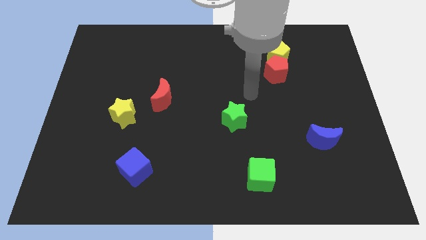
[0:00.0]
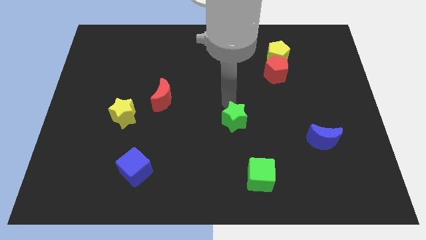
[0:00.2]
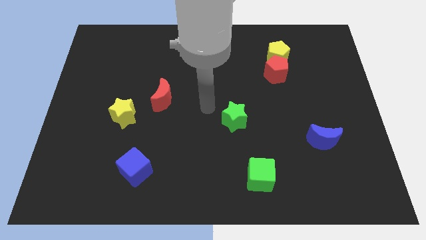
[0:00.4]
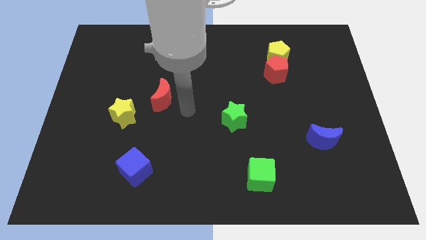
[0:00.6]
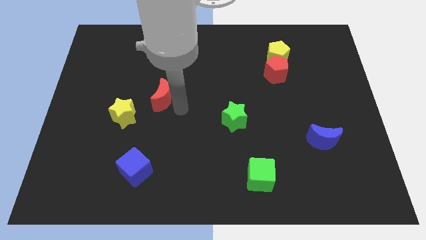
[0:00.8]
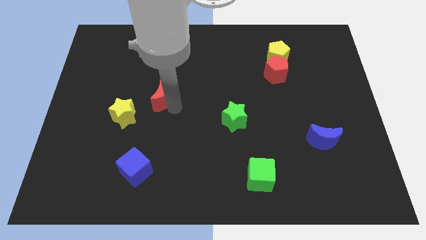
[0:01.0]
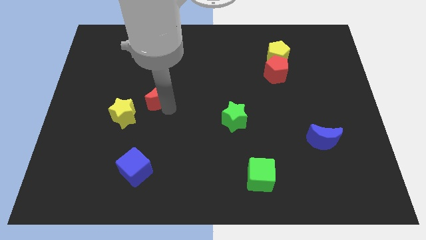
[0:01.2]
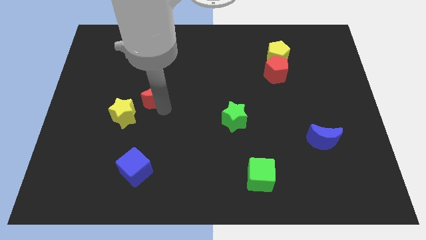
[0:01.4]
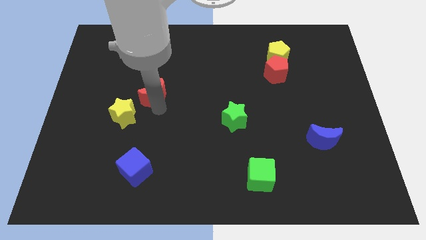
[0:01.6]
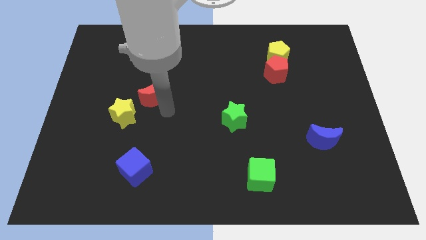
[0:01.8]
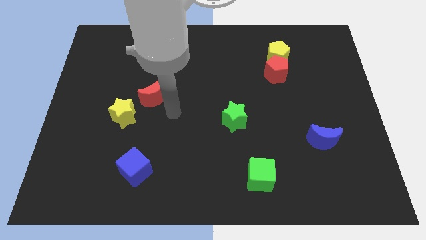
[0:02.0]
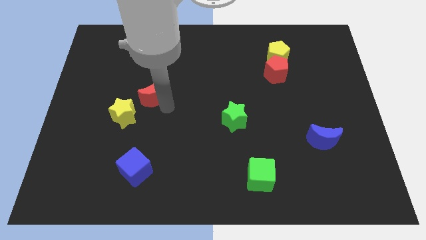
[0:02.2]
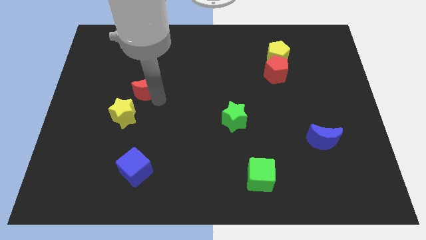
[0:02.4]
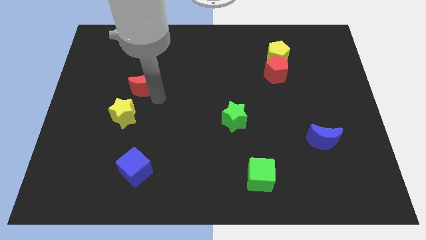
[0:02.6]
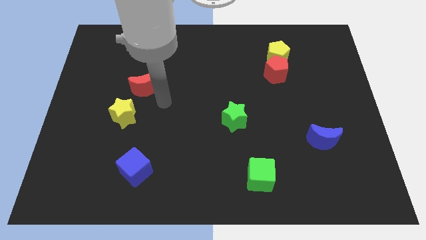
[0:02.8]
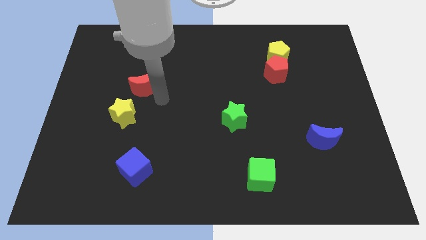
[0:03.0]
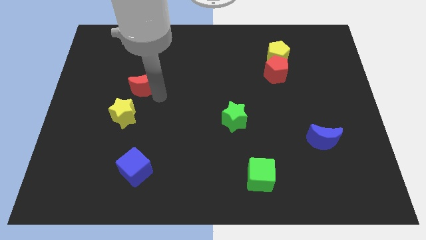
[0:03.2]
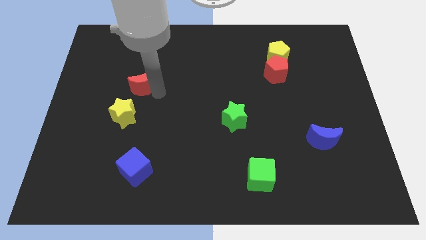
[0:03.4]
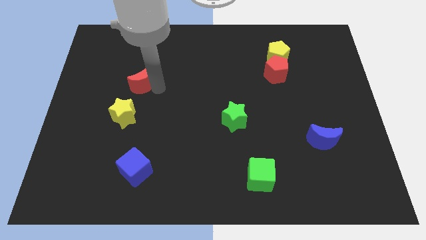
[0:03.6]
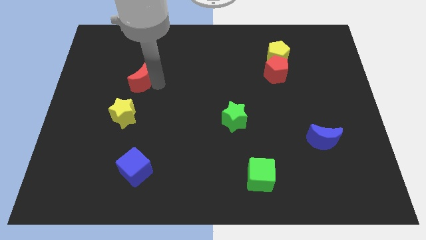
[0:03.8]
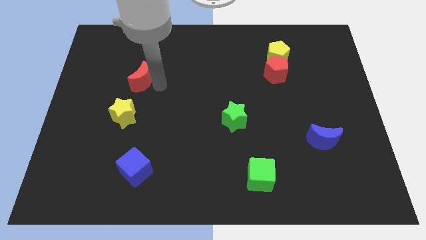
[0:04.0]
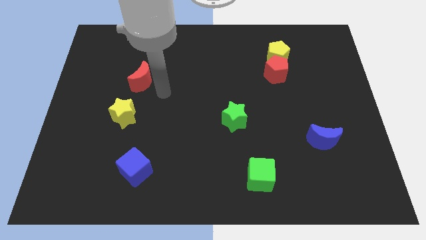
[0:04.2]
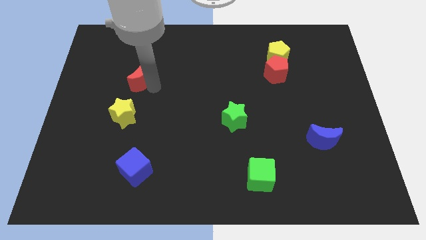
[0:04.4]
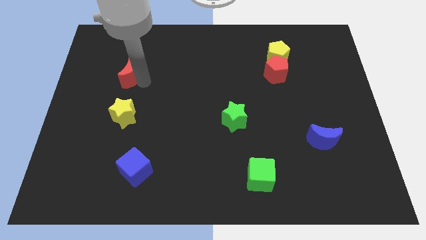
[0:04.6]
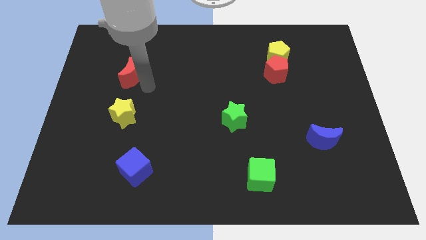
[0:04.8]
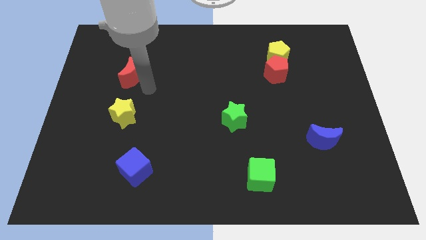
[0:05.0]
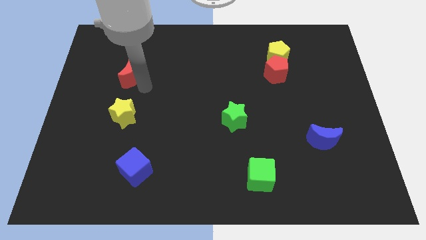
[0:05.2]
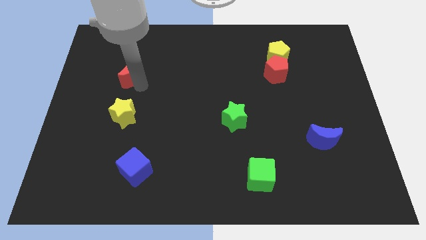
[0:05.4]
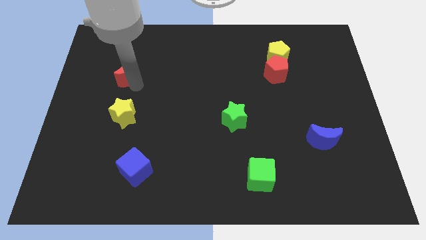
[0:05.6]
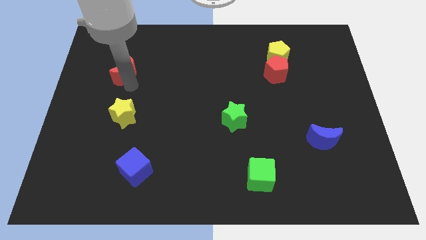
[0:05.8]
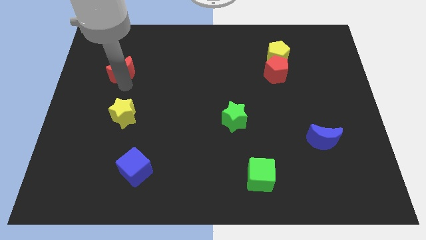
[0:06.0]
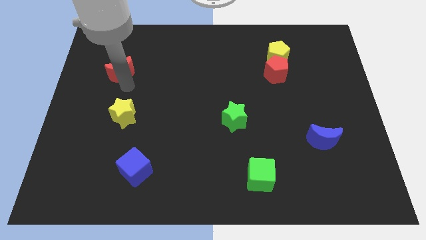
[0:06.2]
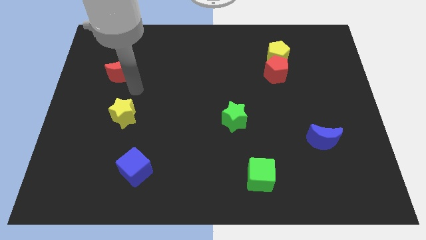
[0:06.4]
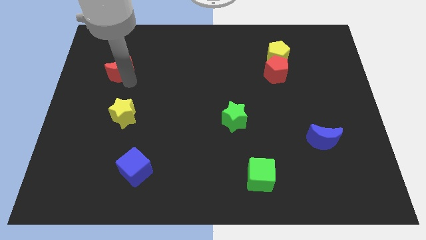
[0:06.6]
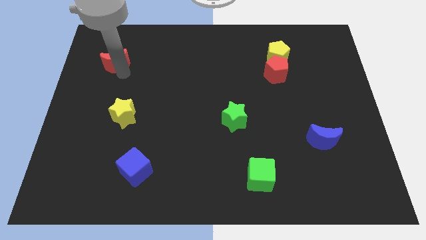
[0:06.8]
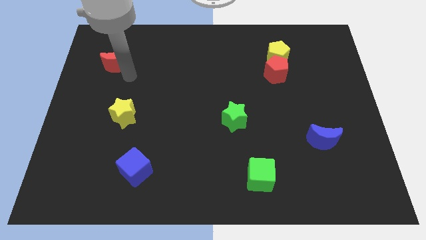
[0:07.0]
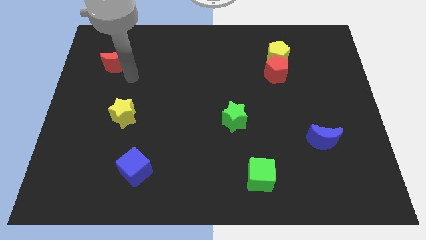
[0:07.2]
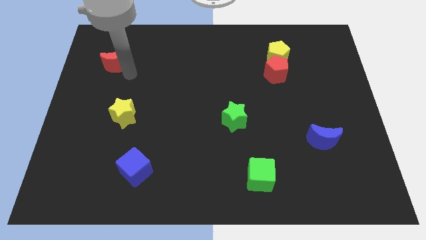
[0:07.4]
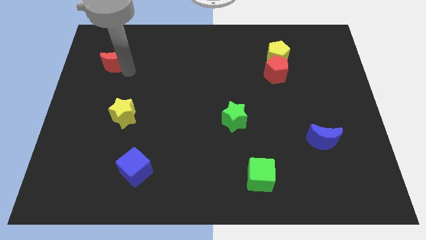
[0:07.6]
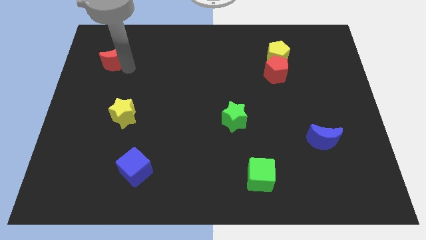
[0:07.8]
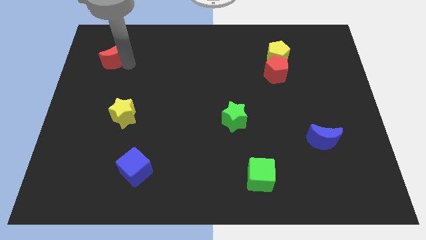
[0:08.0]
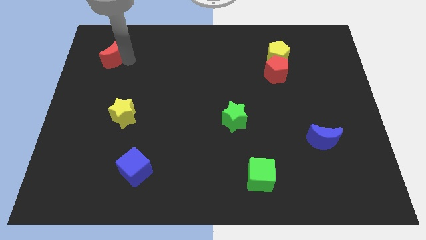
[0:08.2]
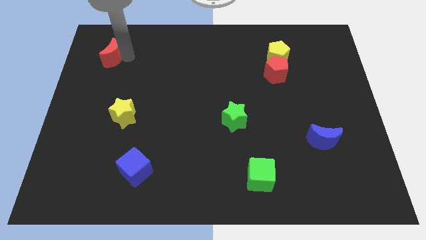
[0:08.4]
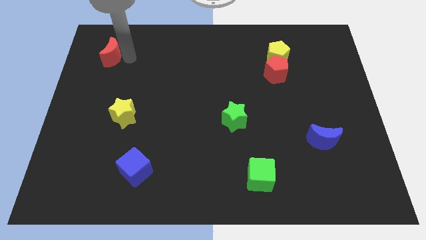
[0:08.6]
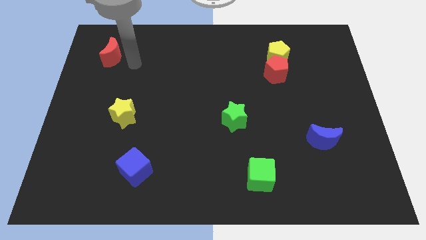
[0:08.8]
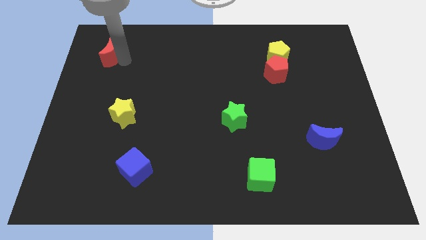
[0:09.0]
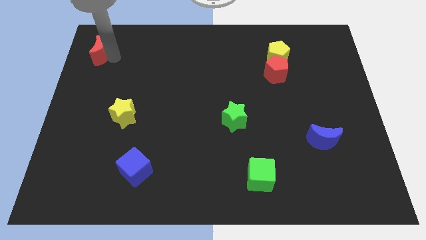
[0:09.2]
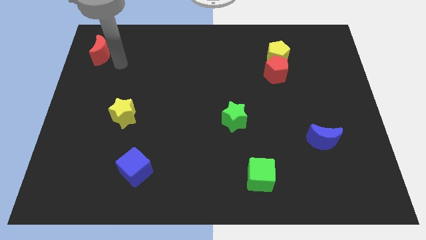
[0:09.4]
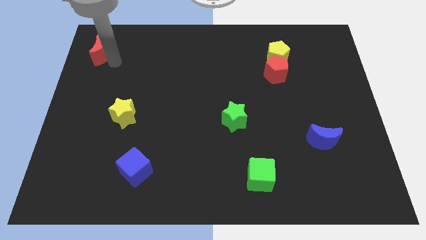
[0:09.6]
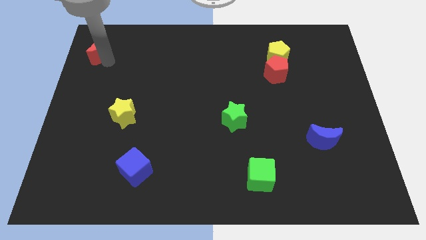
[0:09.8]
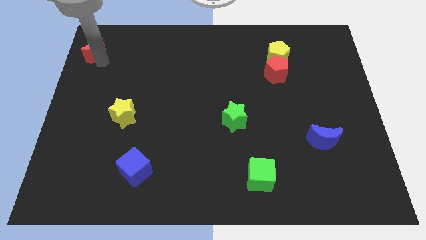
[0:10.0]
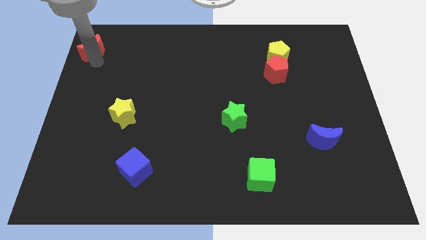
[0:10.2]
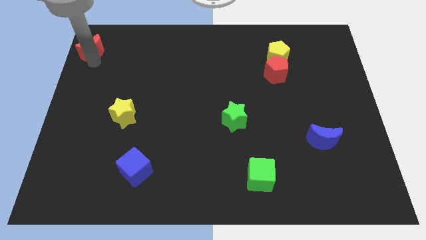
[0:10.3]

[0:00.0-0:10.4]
push the red moon to the top left

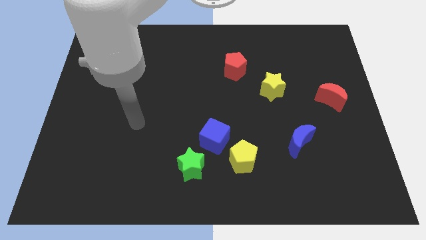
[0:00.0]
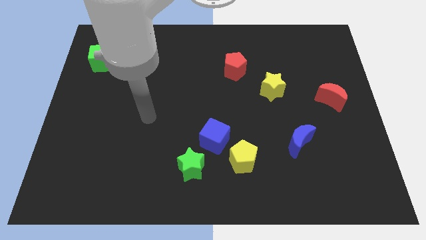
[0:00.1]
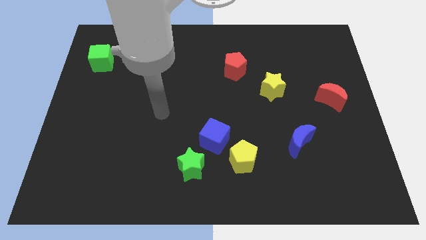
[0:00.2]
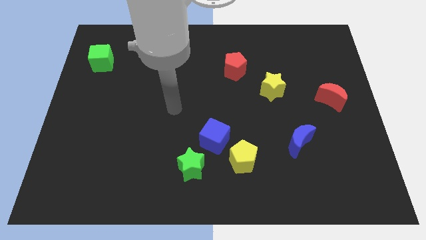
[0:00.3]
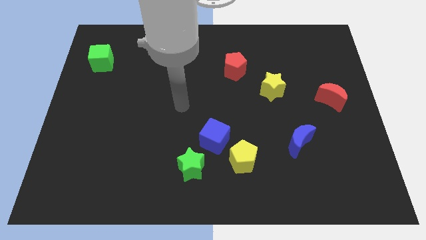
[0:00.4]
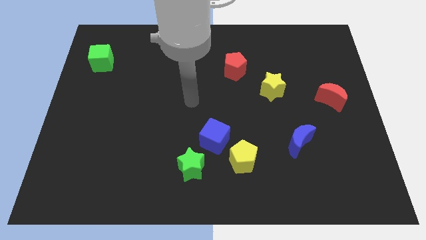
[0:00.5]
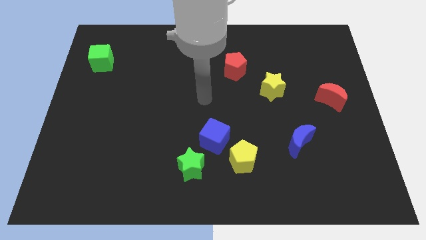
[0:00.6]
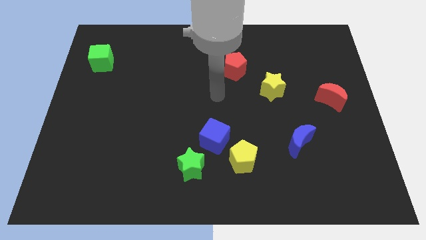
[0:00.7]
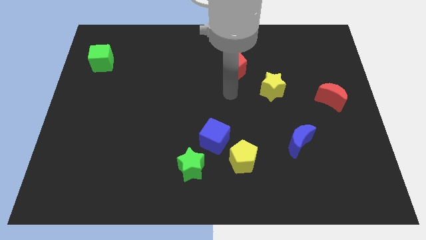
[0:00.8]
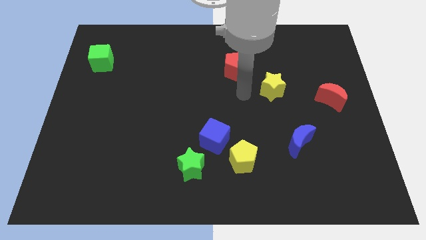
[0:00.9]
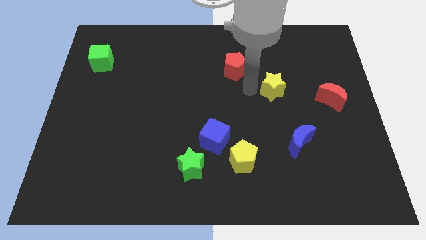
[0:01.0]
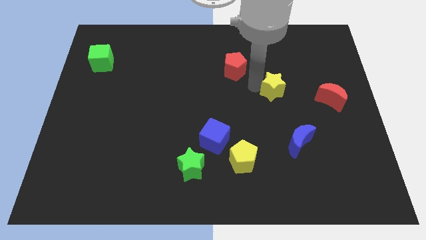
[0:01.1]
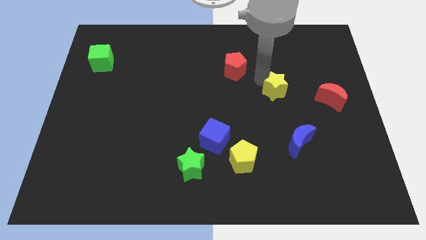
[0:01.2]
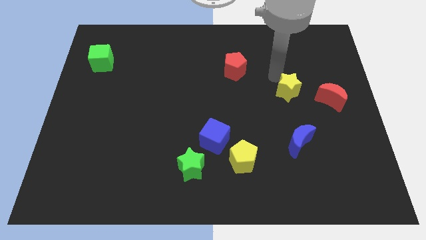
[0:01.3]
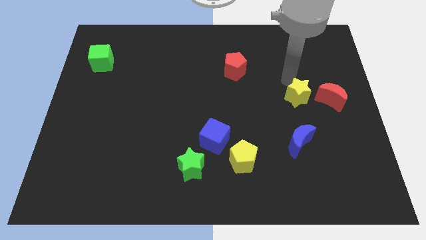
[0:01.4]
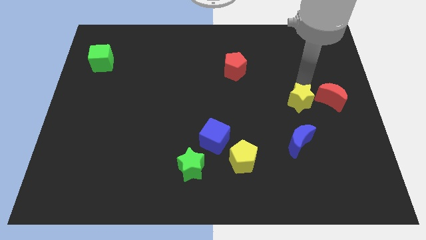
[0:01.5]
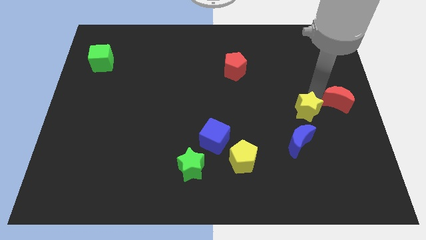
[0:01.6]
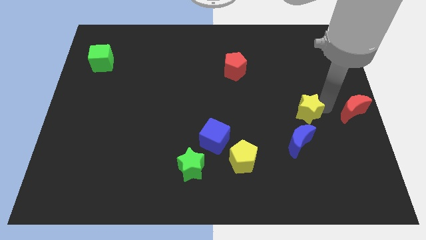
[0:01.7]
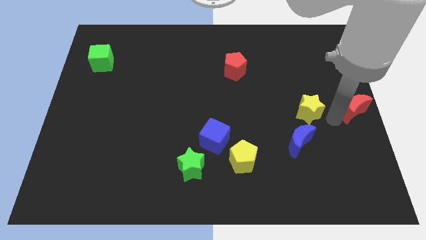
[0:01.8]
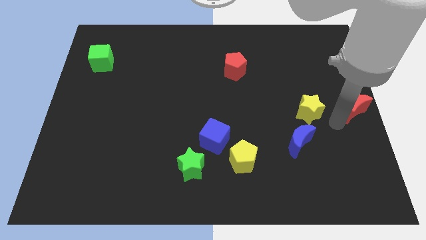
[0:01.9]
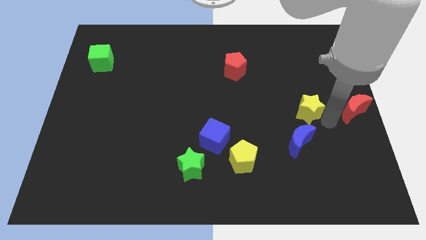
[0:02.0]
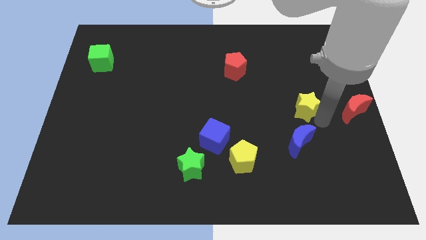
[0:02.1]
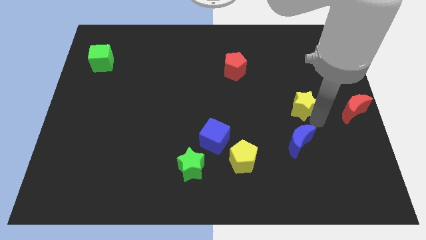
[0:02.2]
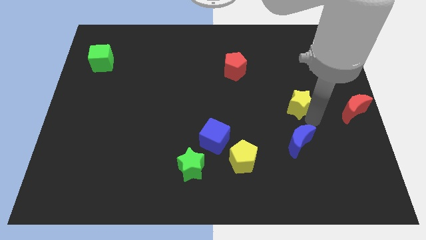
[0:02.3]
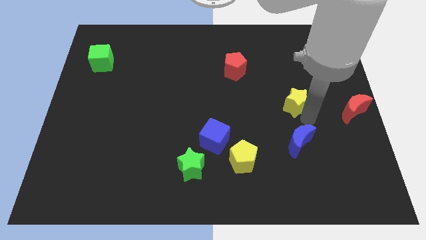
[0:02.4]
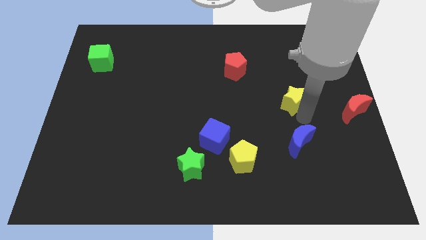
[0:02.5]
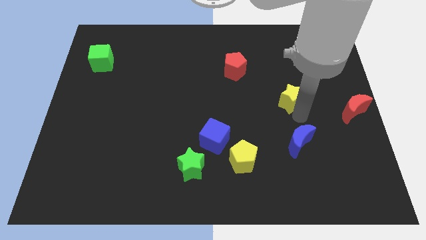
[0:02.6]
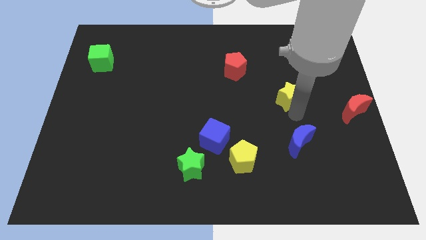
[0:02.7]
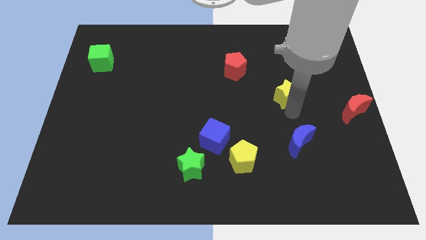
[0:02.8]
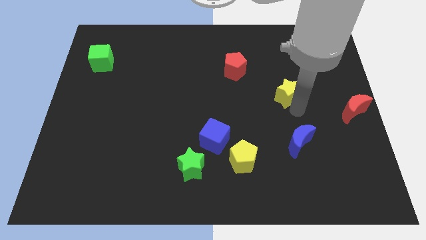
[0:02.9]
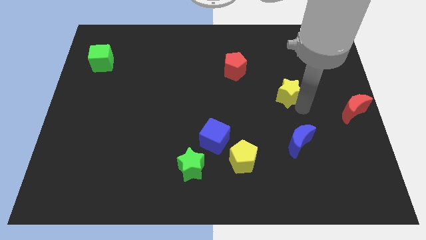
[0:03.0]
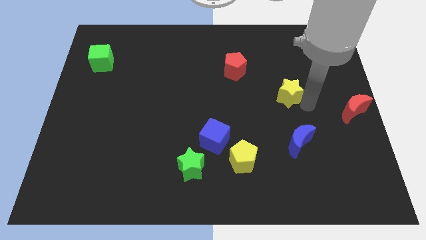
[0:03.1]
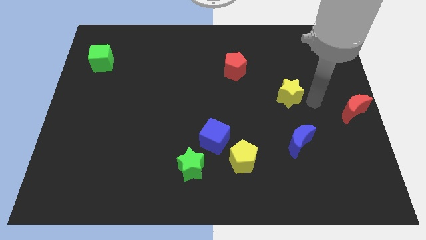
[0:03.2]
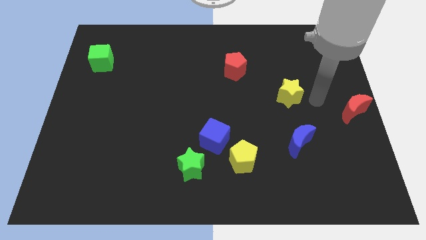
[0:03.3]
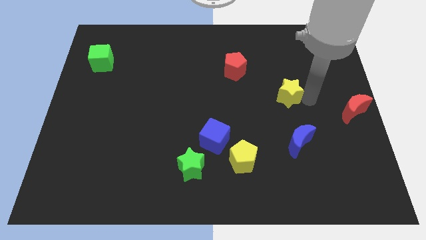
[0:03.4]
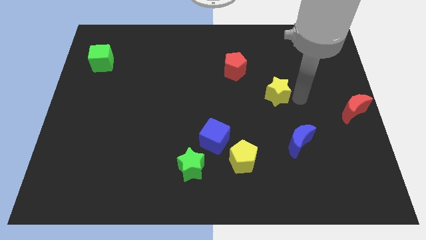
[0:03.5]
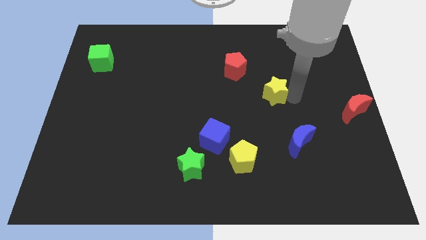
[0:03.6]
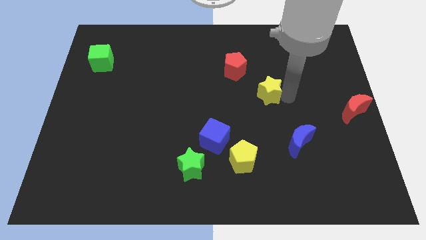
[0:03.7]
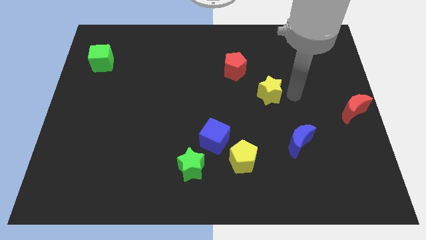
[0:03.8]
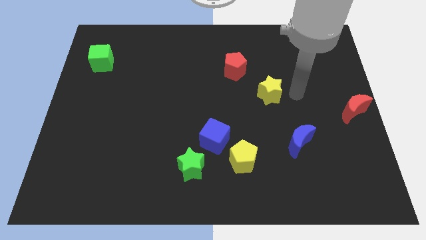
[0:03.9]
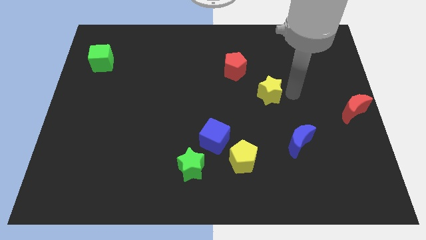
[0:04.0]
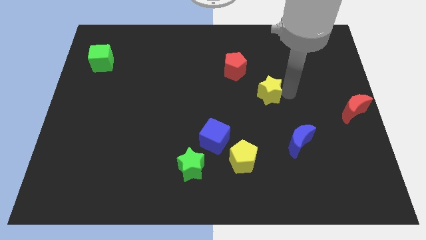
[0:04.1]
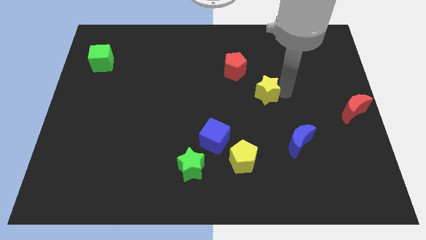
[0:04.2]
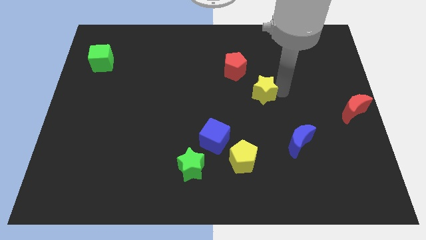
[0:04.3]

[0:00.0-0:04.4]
push the yellow star to the middle
